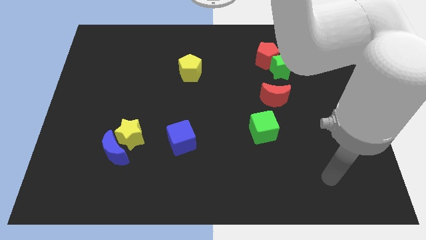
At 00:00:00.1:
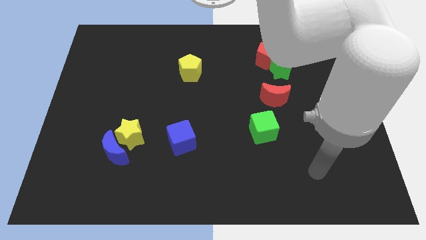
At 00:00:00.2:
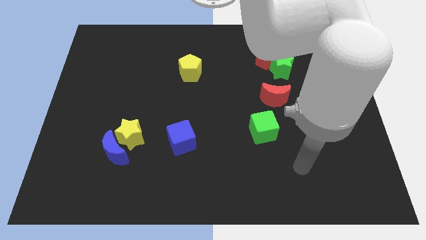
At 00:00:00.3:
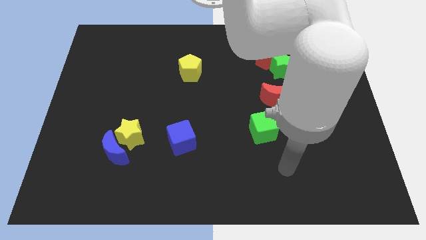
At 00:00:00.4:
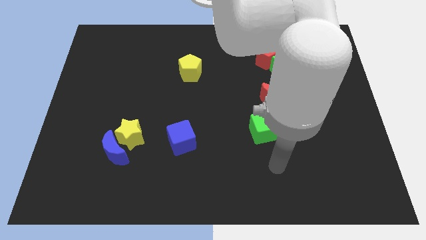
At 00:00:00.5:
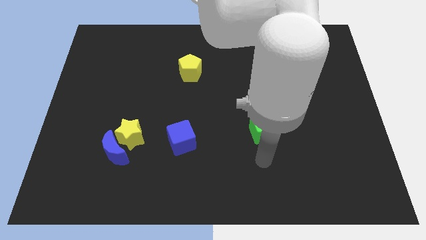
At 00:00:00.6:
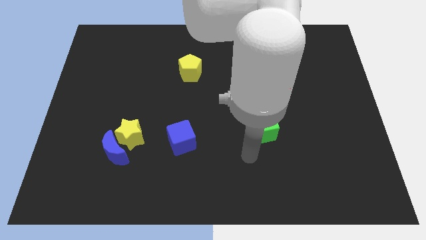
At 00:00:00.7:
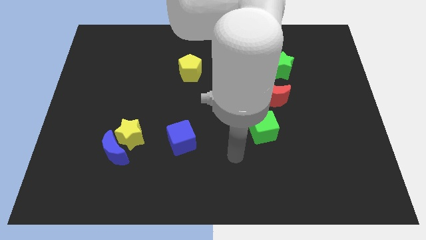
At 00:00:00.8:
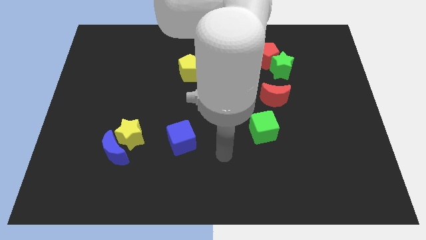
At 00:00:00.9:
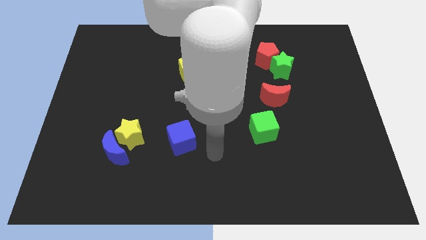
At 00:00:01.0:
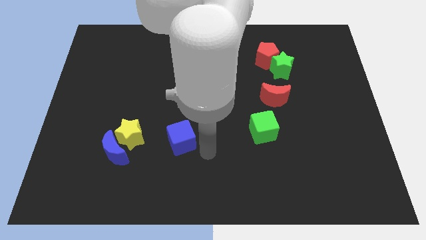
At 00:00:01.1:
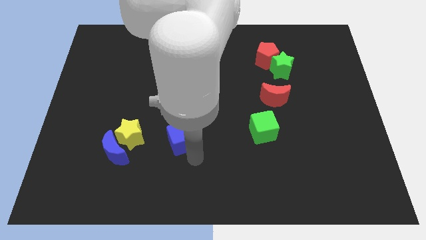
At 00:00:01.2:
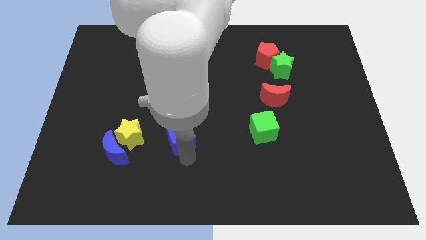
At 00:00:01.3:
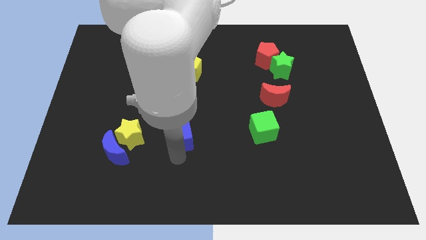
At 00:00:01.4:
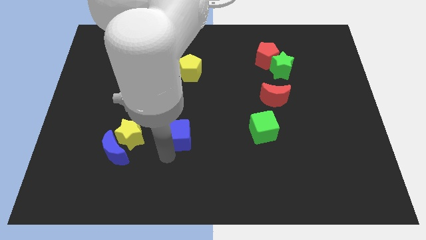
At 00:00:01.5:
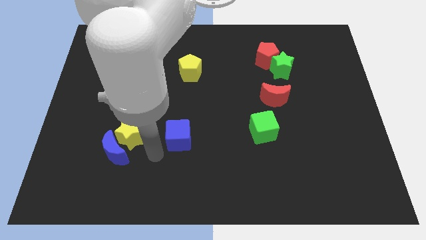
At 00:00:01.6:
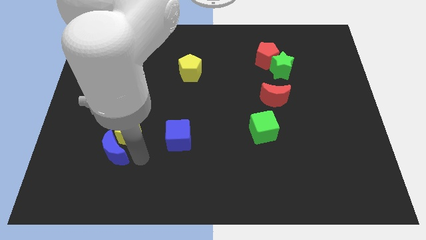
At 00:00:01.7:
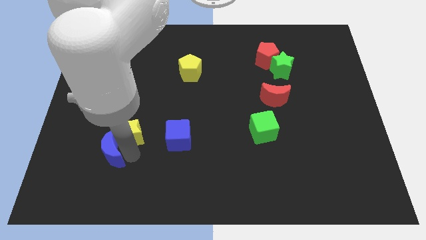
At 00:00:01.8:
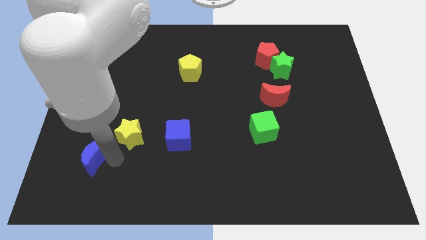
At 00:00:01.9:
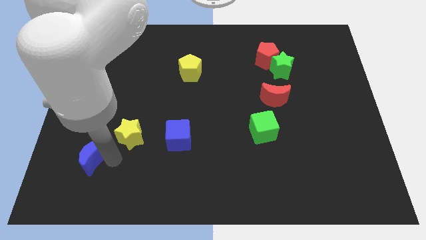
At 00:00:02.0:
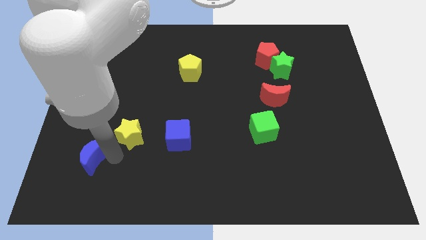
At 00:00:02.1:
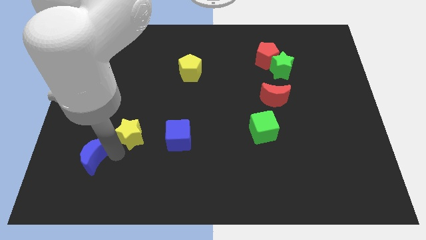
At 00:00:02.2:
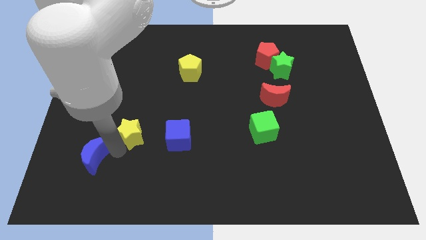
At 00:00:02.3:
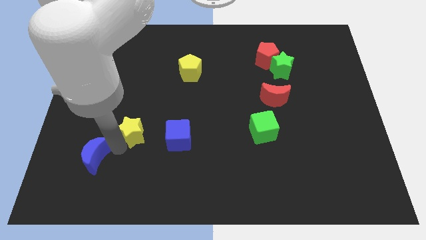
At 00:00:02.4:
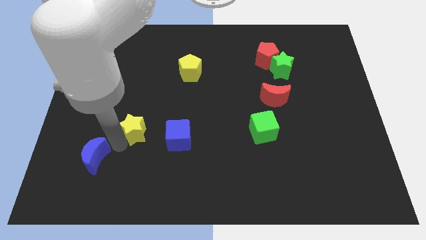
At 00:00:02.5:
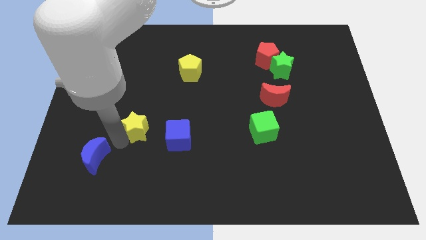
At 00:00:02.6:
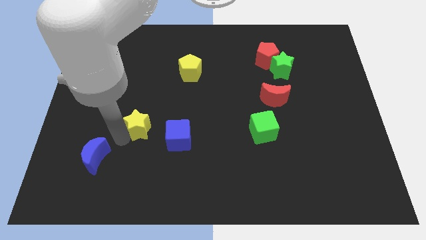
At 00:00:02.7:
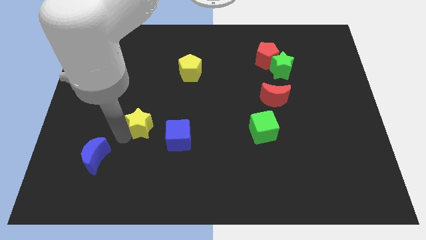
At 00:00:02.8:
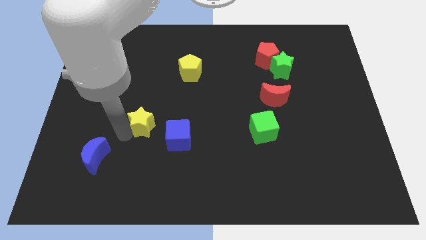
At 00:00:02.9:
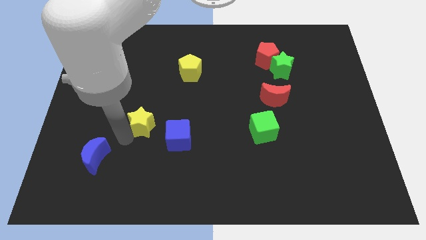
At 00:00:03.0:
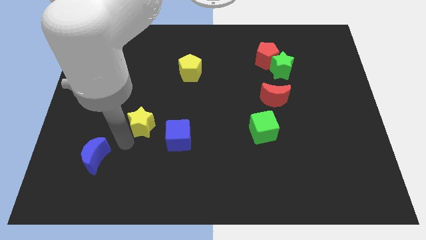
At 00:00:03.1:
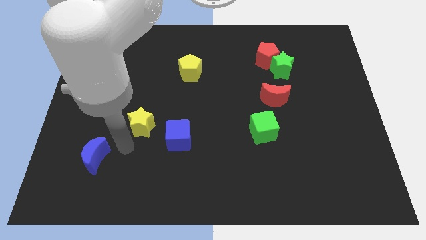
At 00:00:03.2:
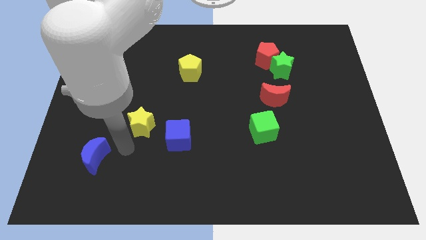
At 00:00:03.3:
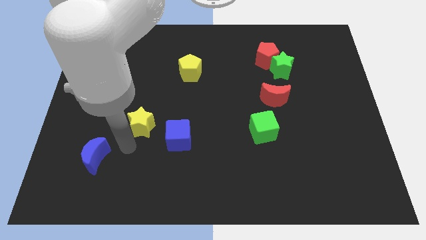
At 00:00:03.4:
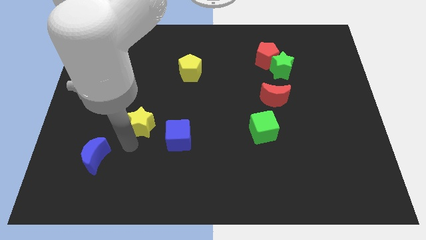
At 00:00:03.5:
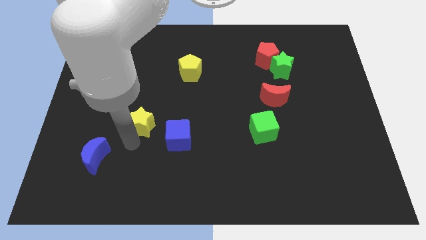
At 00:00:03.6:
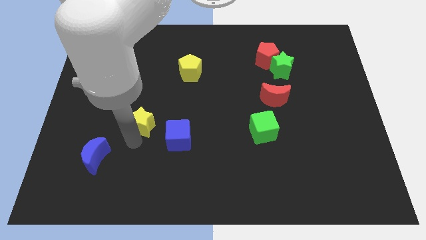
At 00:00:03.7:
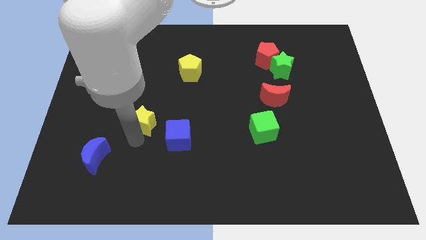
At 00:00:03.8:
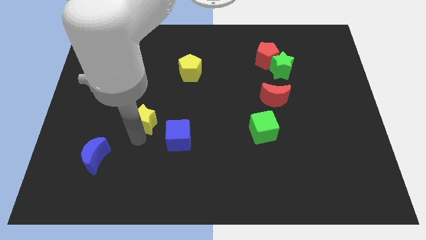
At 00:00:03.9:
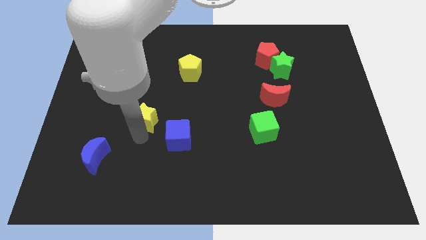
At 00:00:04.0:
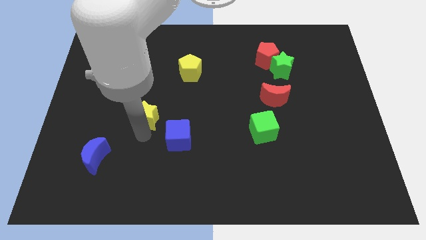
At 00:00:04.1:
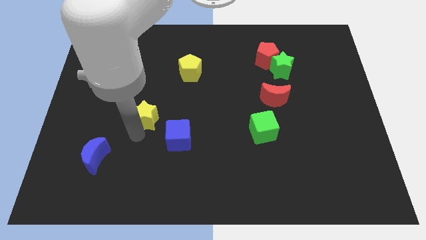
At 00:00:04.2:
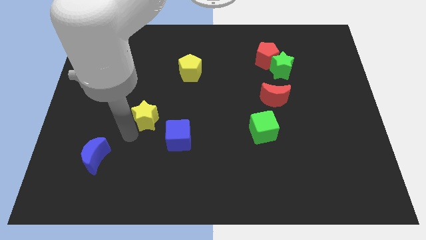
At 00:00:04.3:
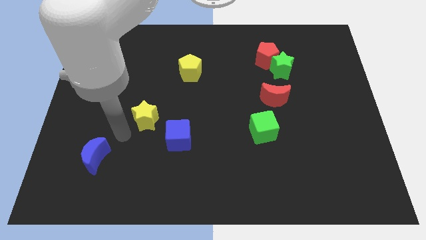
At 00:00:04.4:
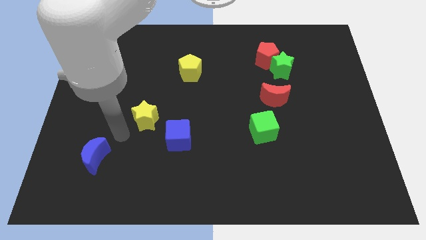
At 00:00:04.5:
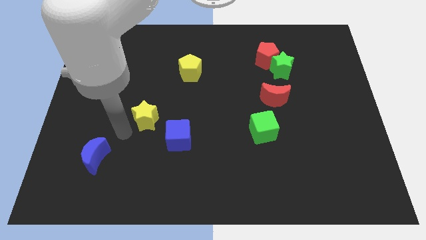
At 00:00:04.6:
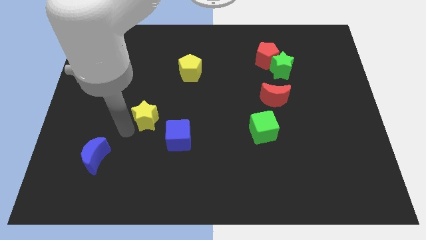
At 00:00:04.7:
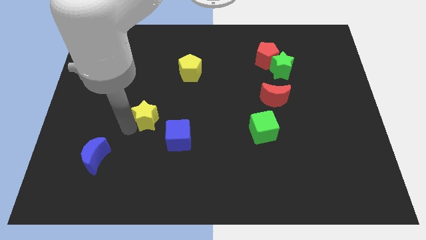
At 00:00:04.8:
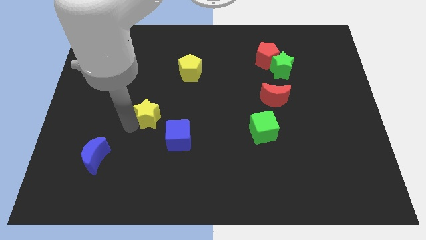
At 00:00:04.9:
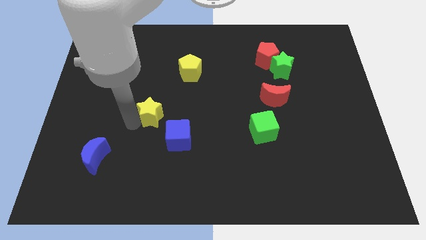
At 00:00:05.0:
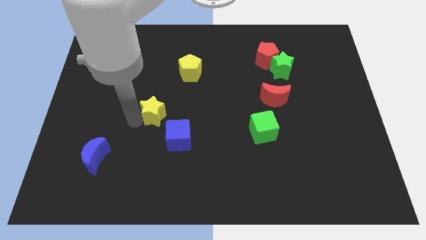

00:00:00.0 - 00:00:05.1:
push the yellow star upwards and then to the right slightly

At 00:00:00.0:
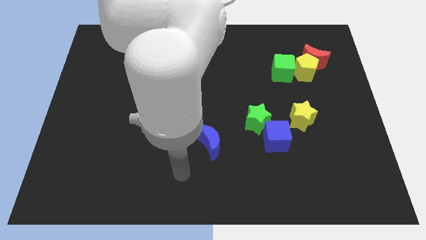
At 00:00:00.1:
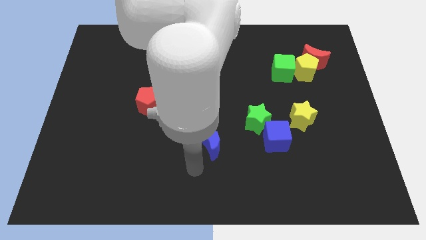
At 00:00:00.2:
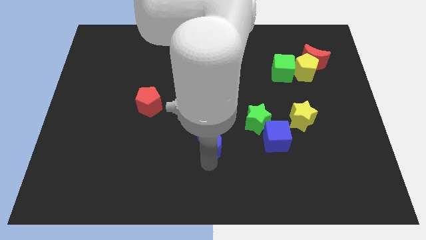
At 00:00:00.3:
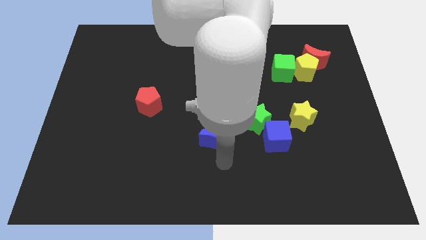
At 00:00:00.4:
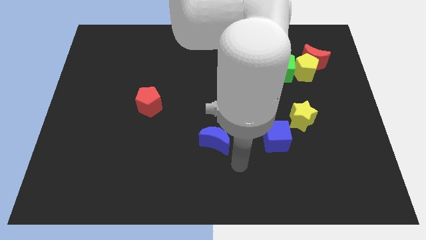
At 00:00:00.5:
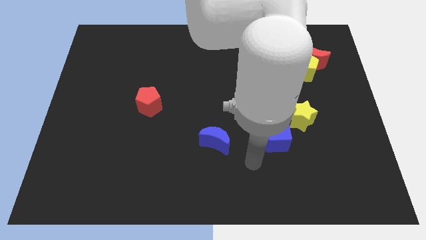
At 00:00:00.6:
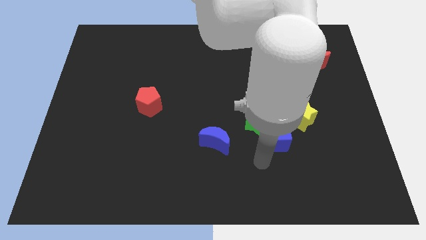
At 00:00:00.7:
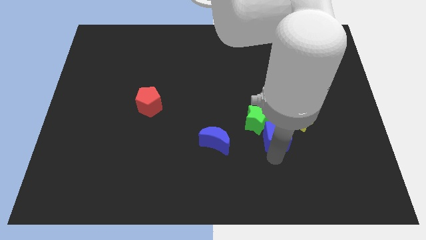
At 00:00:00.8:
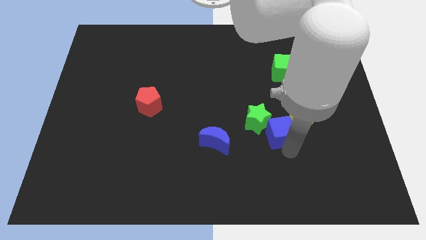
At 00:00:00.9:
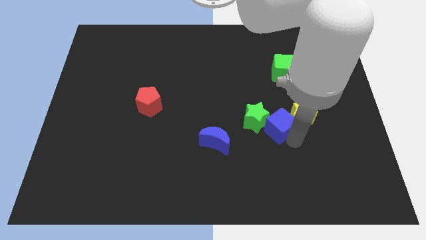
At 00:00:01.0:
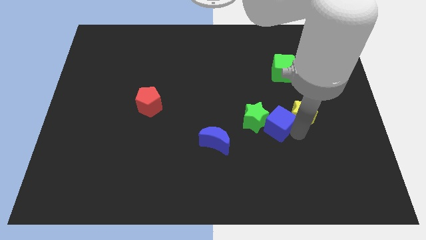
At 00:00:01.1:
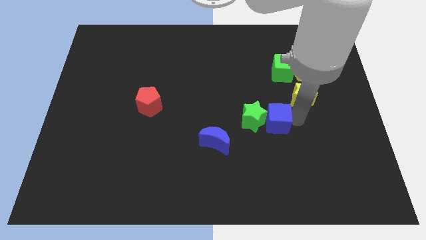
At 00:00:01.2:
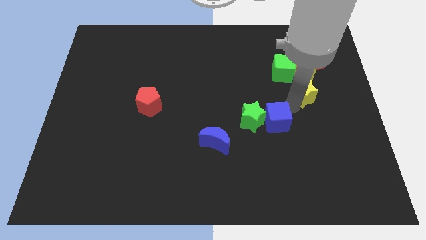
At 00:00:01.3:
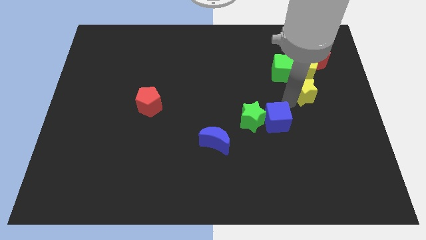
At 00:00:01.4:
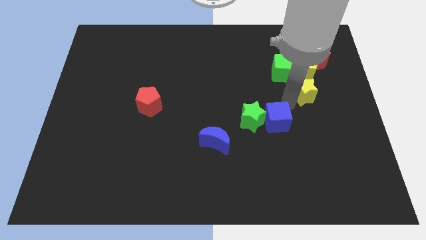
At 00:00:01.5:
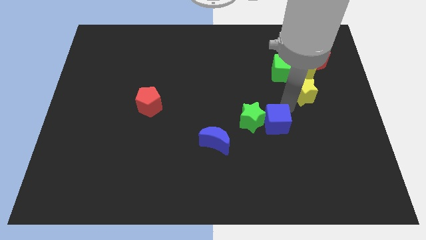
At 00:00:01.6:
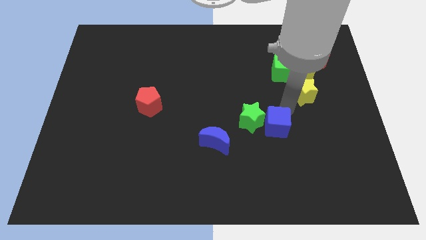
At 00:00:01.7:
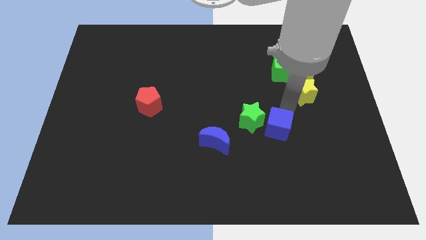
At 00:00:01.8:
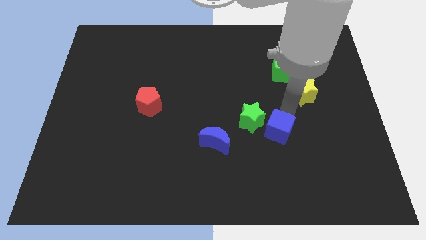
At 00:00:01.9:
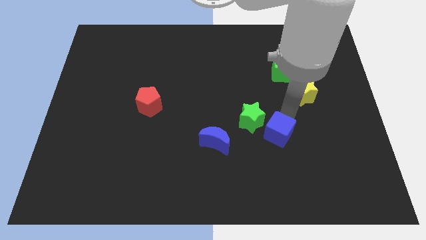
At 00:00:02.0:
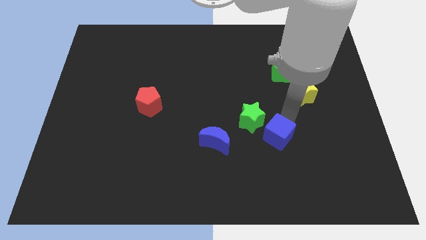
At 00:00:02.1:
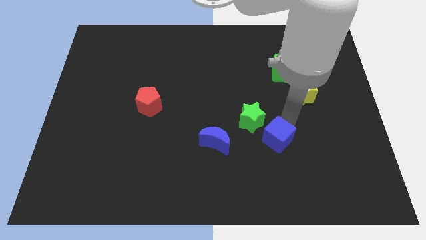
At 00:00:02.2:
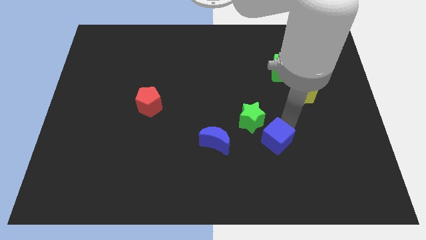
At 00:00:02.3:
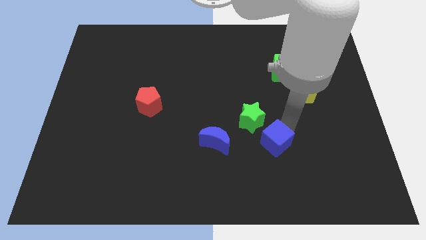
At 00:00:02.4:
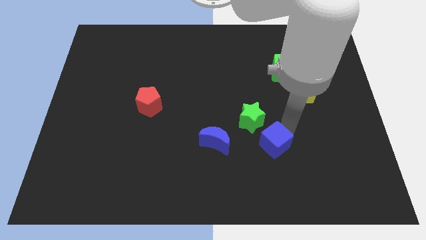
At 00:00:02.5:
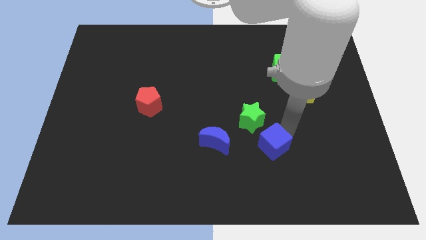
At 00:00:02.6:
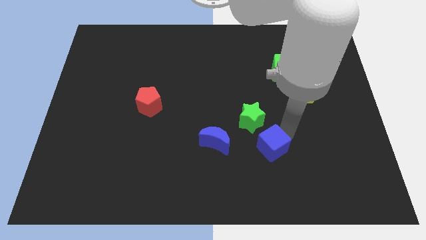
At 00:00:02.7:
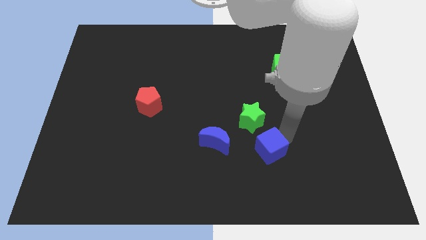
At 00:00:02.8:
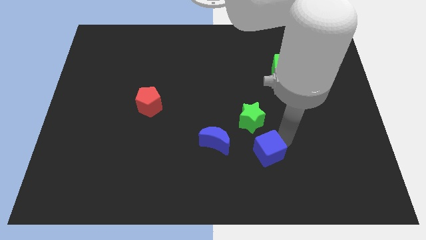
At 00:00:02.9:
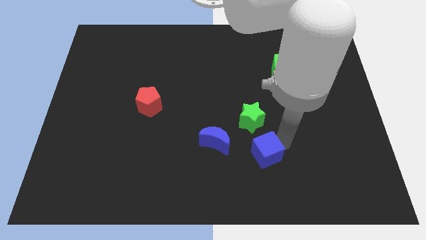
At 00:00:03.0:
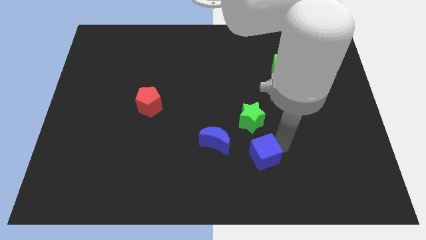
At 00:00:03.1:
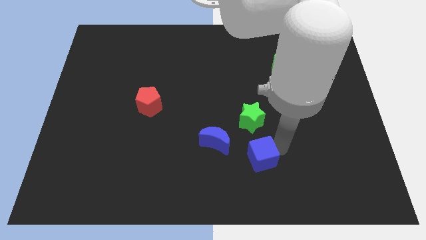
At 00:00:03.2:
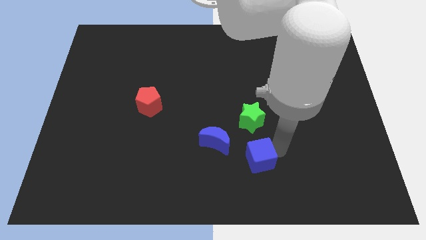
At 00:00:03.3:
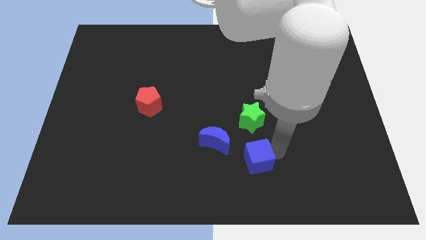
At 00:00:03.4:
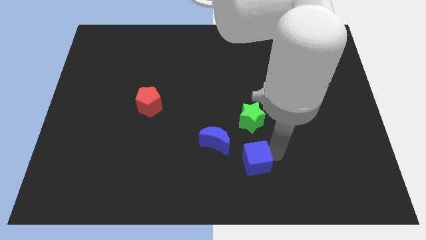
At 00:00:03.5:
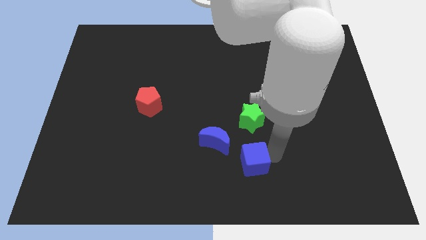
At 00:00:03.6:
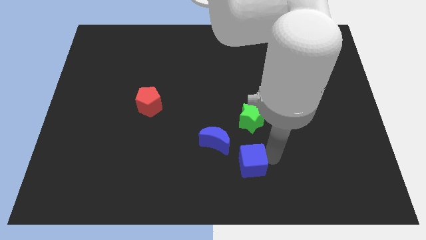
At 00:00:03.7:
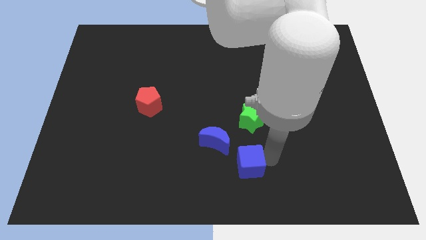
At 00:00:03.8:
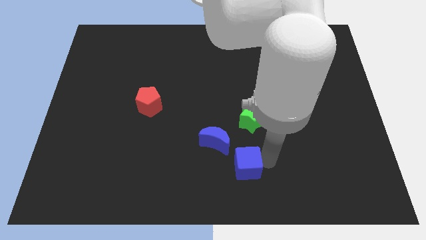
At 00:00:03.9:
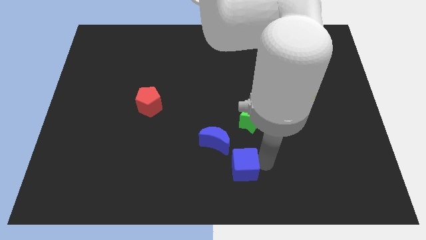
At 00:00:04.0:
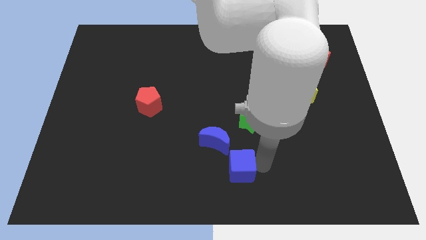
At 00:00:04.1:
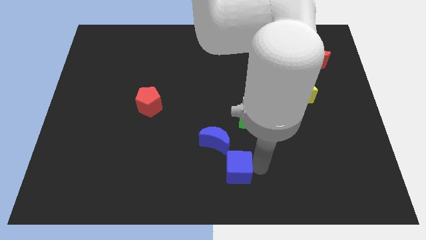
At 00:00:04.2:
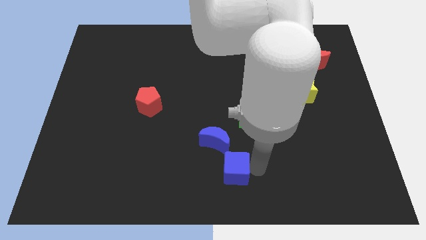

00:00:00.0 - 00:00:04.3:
push the blue cube left slightly
